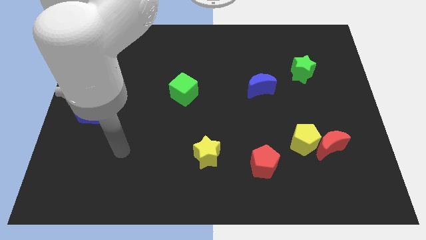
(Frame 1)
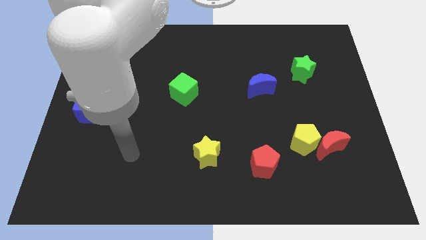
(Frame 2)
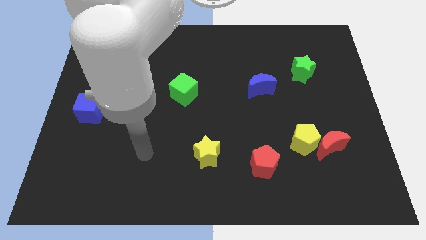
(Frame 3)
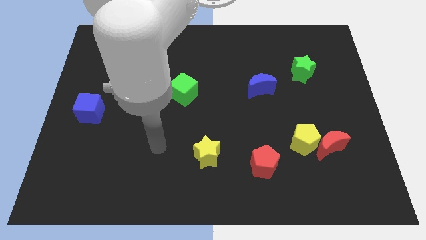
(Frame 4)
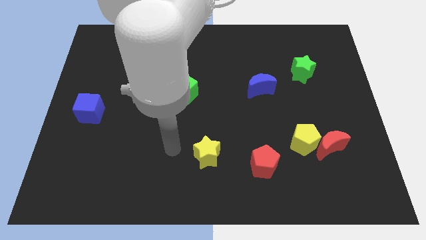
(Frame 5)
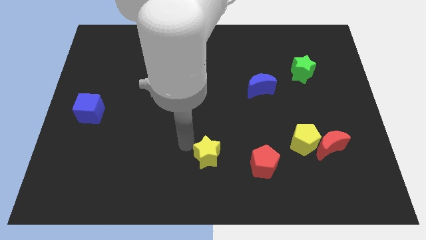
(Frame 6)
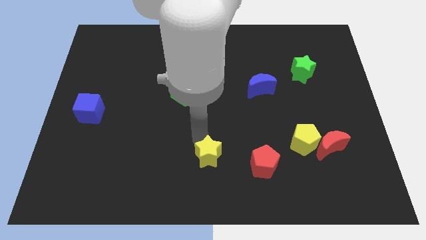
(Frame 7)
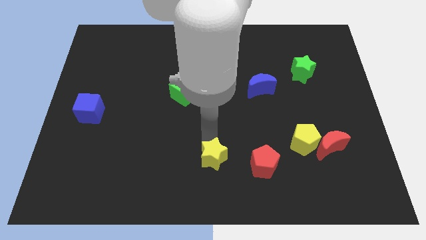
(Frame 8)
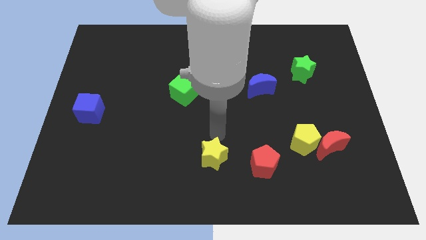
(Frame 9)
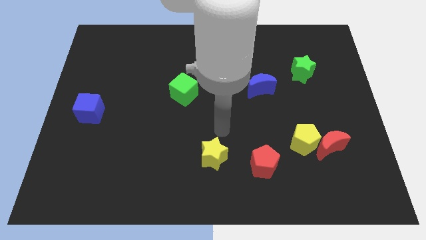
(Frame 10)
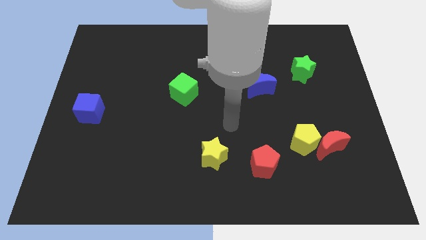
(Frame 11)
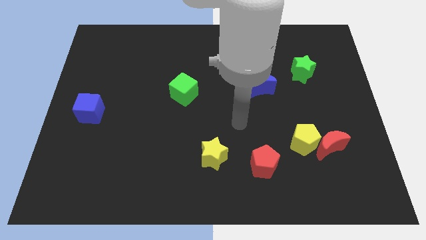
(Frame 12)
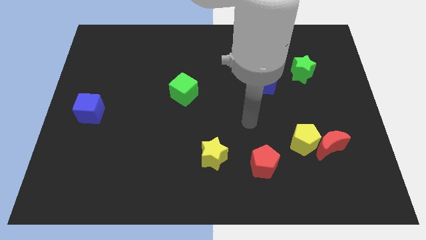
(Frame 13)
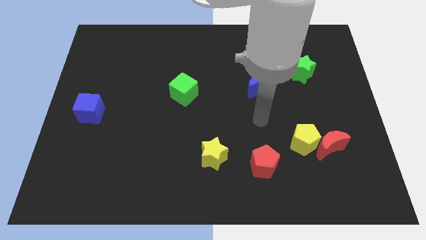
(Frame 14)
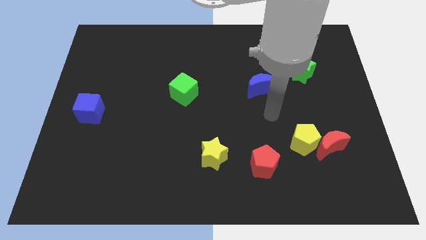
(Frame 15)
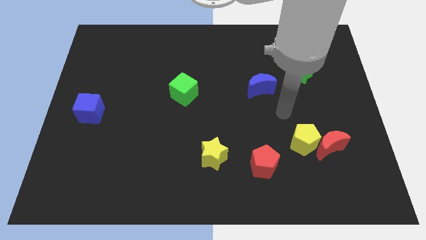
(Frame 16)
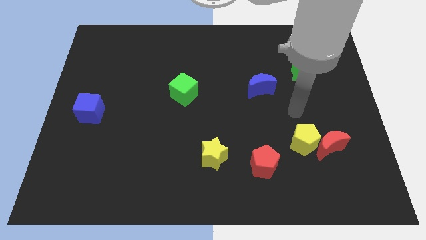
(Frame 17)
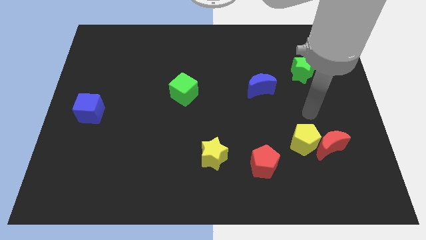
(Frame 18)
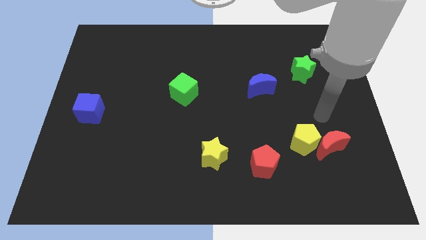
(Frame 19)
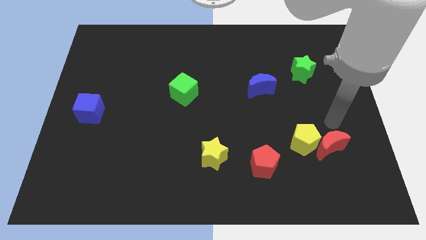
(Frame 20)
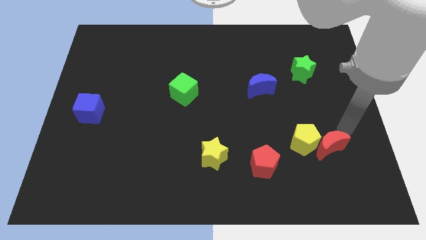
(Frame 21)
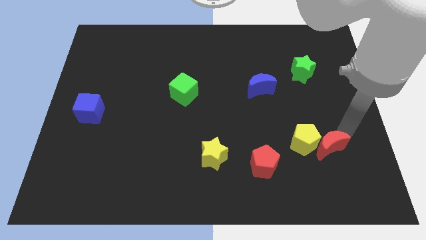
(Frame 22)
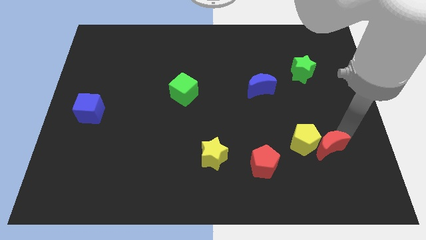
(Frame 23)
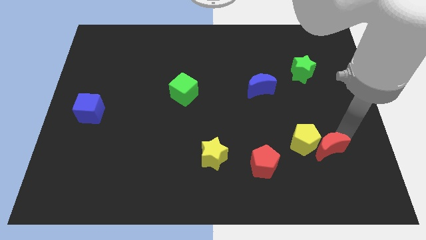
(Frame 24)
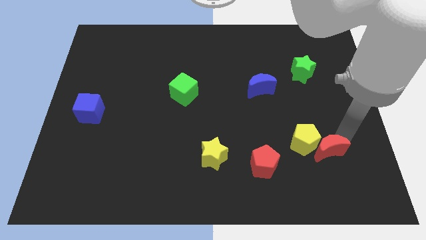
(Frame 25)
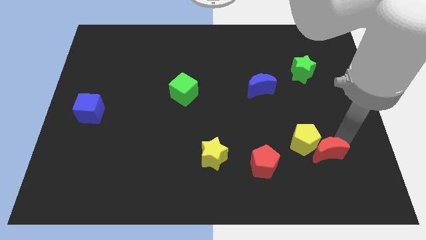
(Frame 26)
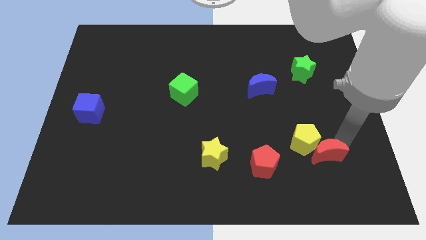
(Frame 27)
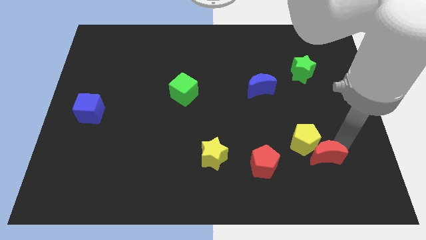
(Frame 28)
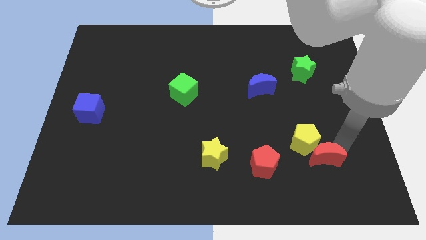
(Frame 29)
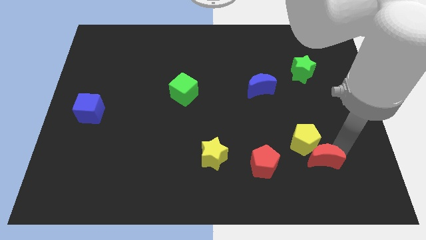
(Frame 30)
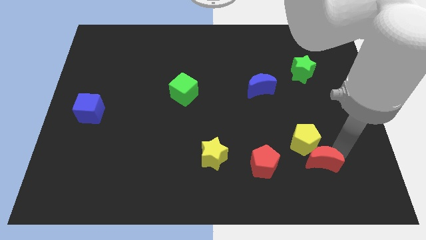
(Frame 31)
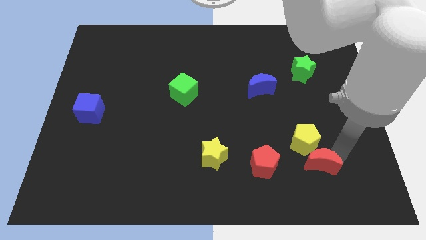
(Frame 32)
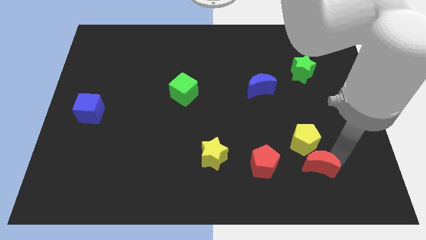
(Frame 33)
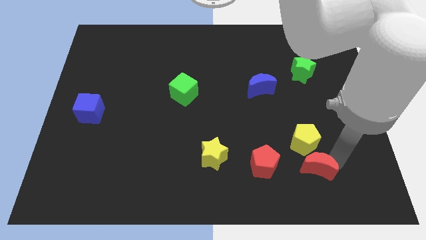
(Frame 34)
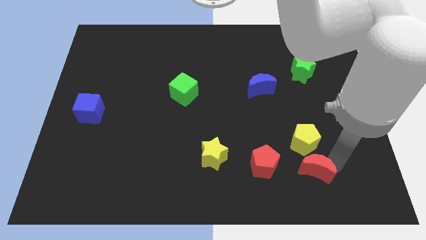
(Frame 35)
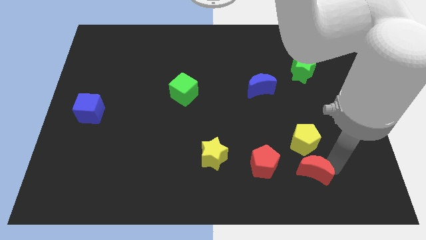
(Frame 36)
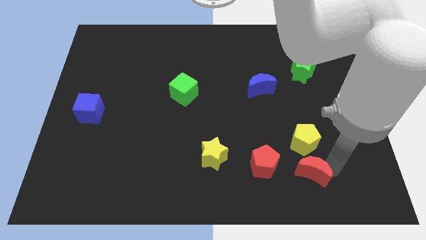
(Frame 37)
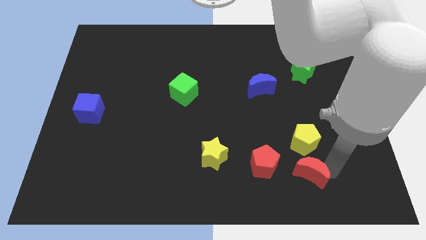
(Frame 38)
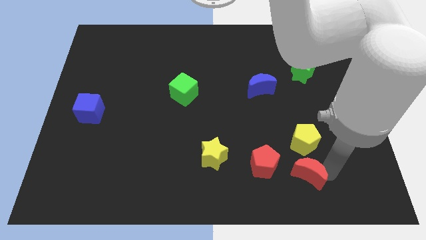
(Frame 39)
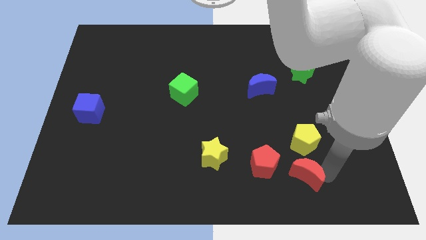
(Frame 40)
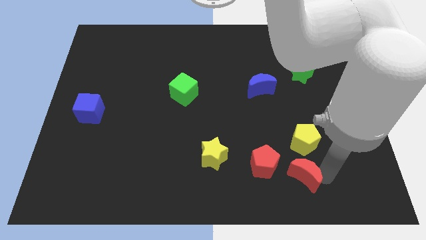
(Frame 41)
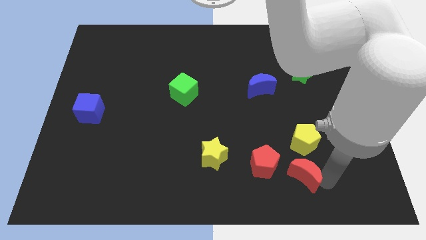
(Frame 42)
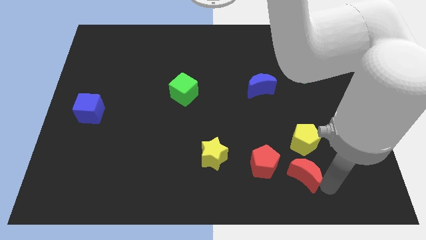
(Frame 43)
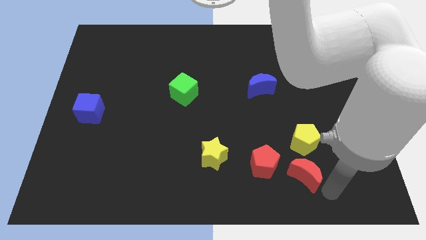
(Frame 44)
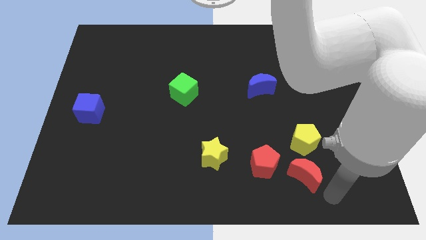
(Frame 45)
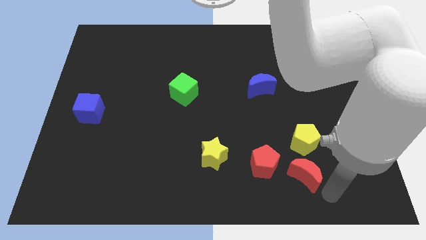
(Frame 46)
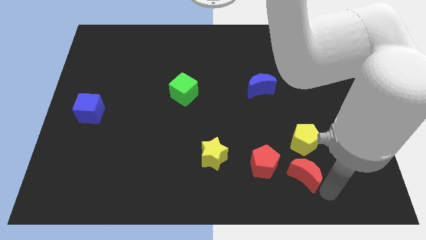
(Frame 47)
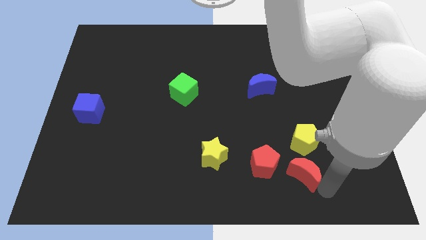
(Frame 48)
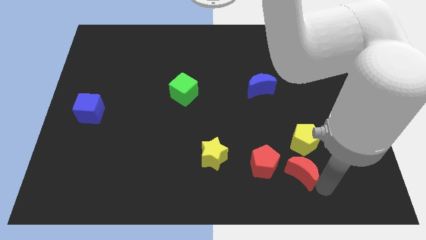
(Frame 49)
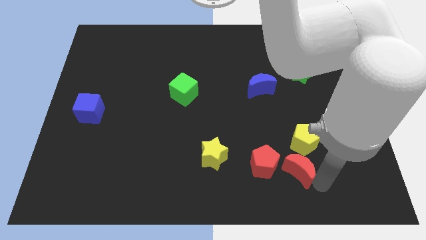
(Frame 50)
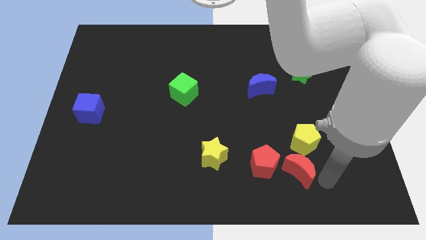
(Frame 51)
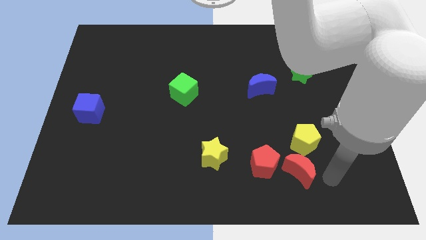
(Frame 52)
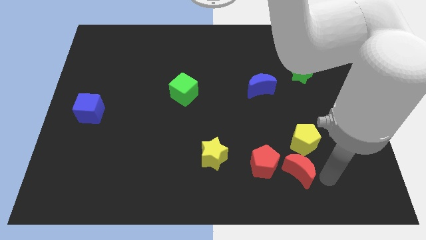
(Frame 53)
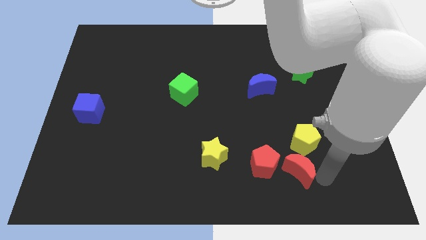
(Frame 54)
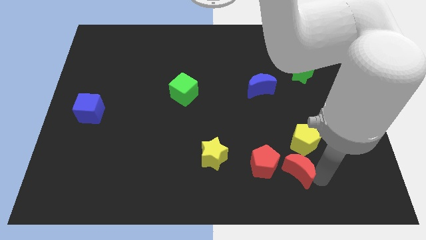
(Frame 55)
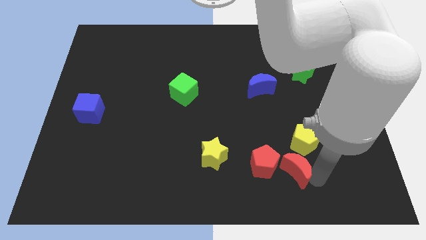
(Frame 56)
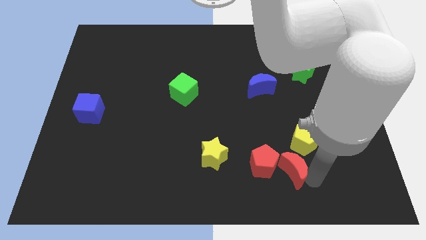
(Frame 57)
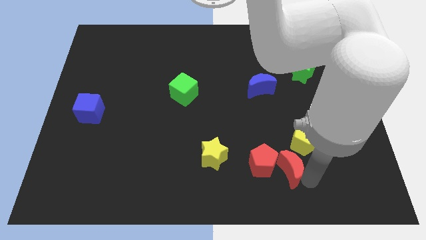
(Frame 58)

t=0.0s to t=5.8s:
move the red moon next to the red pentagon

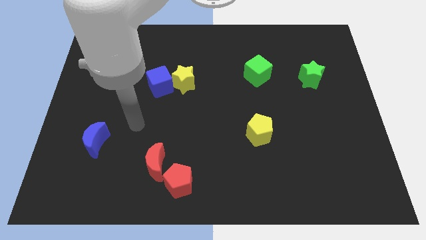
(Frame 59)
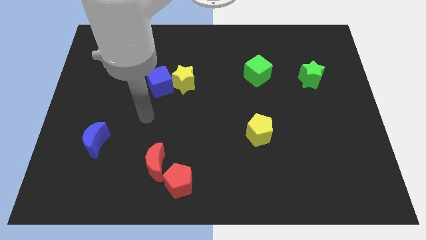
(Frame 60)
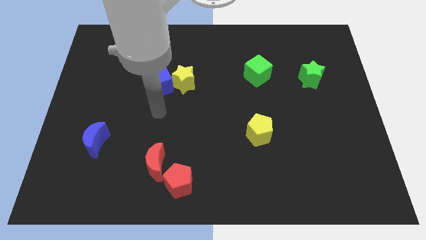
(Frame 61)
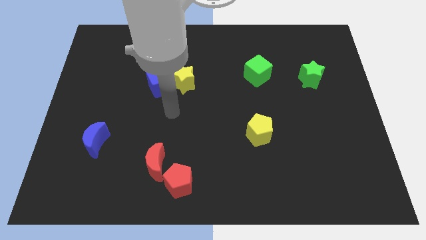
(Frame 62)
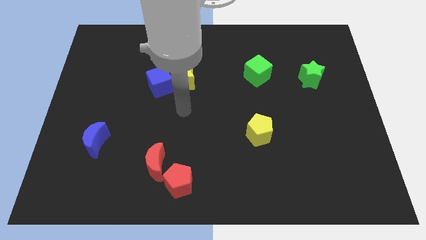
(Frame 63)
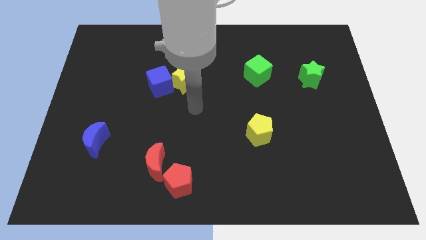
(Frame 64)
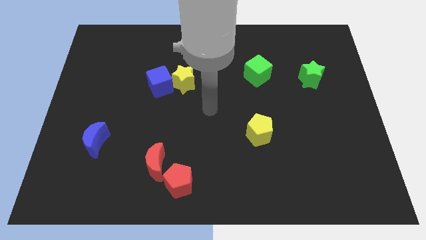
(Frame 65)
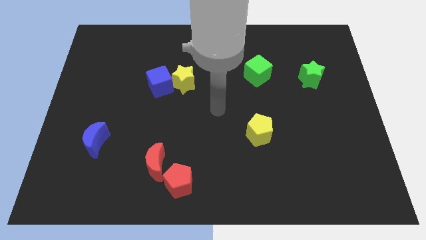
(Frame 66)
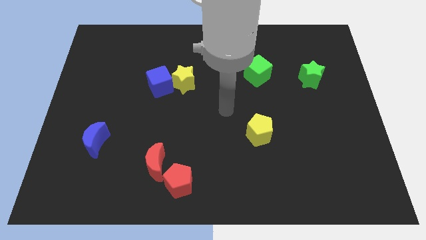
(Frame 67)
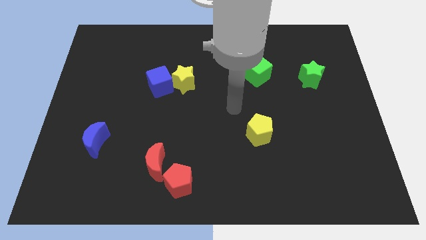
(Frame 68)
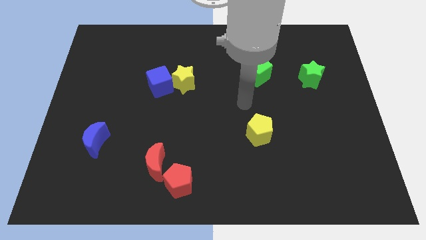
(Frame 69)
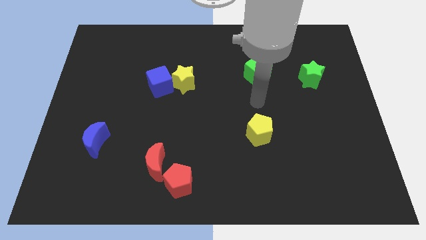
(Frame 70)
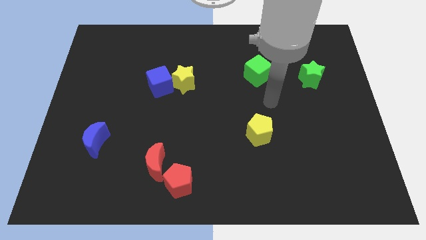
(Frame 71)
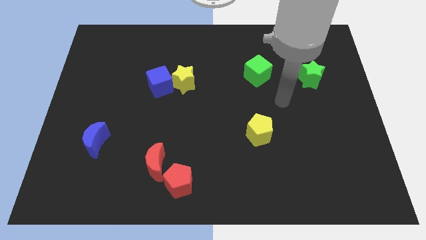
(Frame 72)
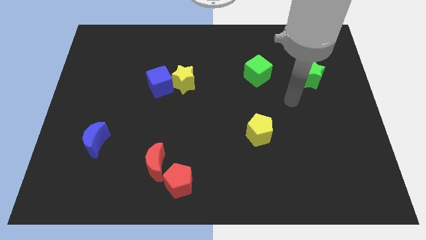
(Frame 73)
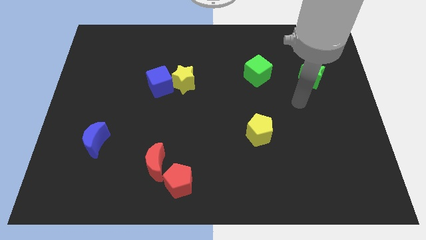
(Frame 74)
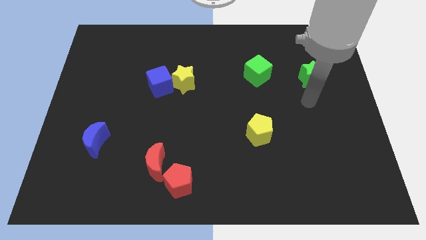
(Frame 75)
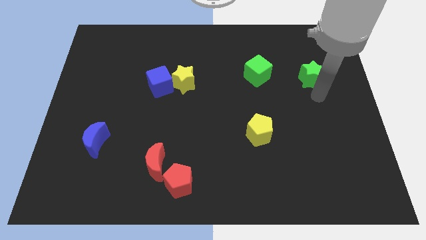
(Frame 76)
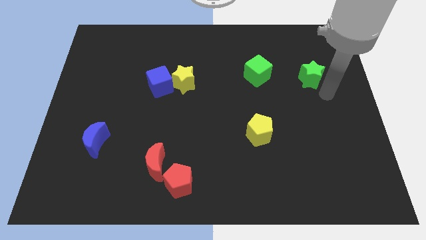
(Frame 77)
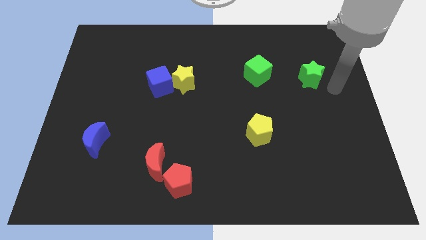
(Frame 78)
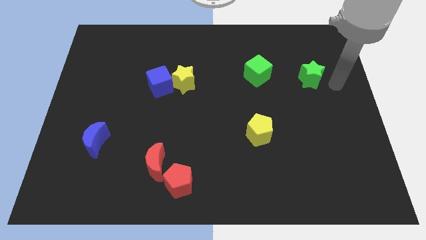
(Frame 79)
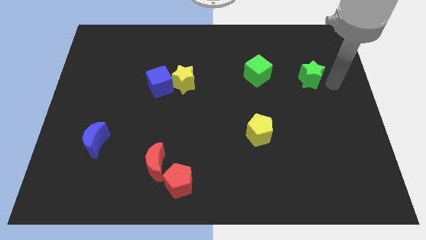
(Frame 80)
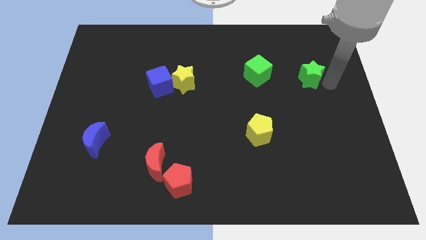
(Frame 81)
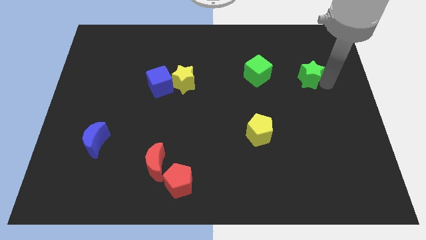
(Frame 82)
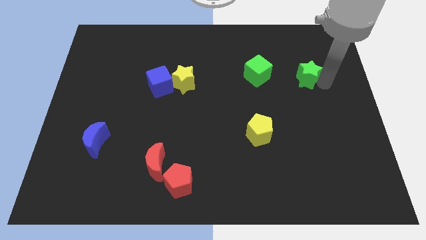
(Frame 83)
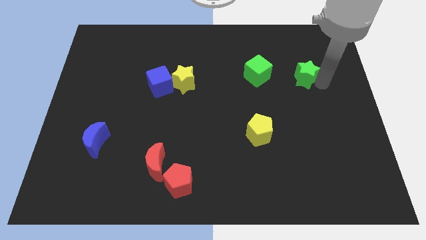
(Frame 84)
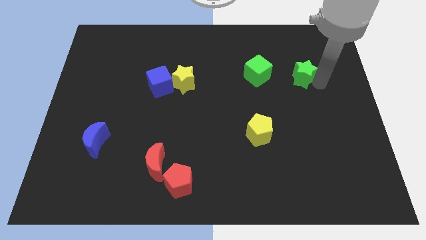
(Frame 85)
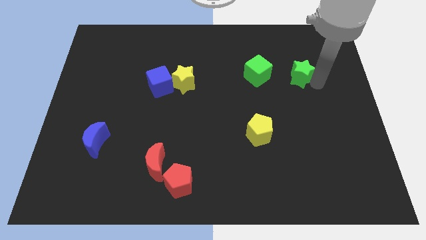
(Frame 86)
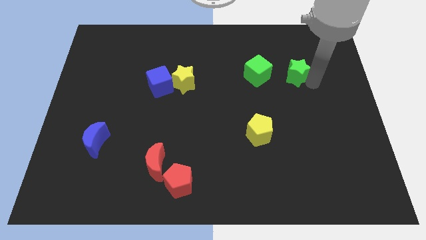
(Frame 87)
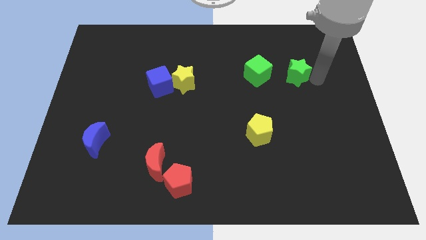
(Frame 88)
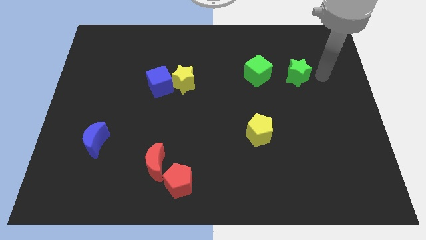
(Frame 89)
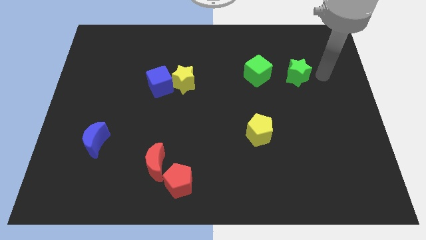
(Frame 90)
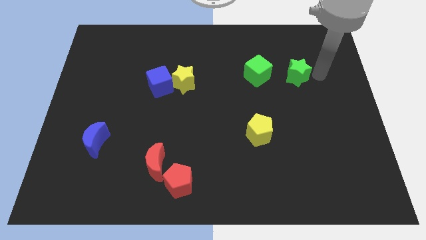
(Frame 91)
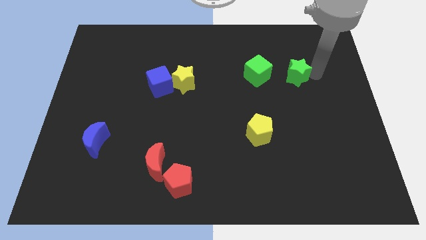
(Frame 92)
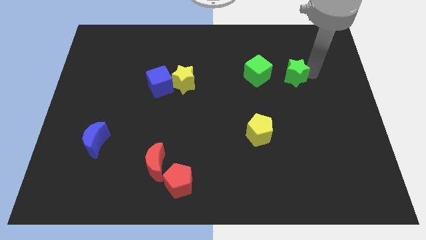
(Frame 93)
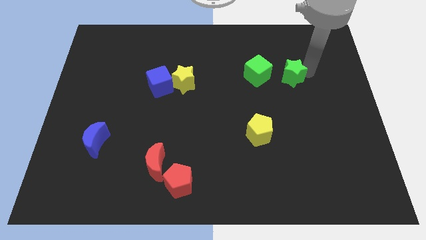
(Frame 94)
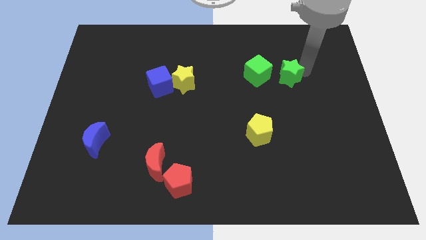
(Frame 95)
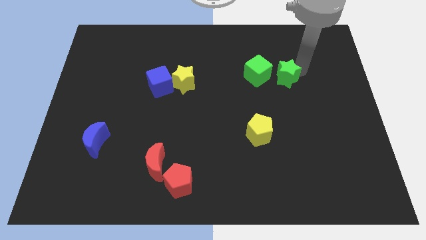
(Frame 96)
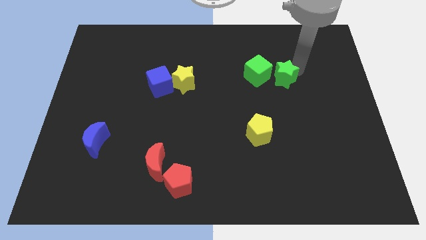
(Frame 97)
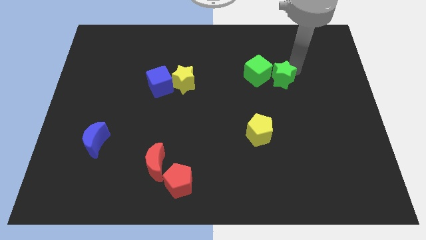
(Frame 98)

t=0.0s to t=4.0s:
slide the green star towards the green cube
